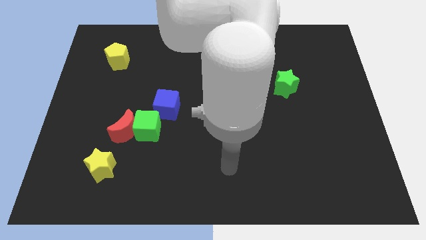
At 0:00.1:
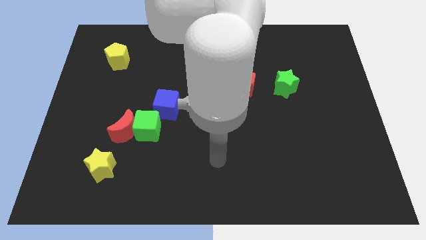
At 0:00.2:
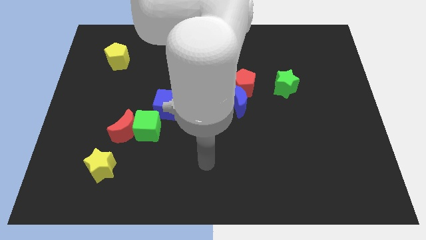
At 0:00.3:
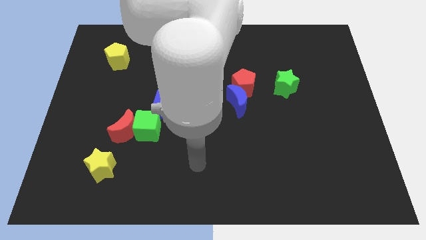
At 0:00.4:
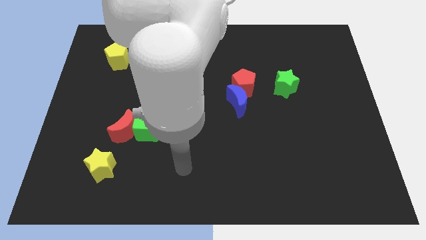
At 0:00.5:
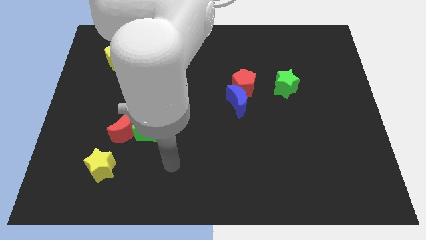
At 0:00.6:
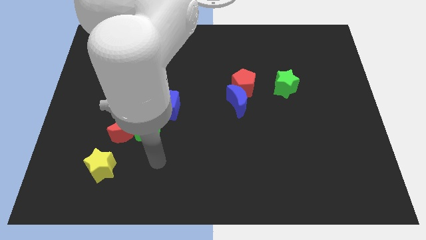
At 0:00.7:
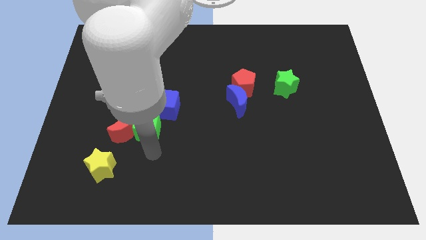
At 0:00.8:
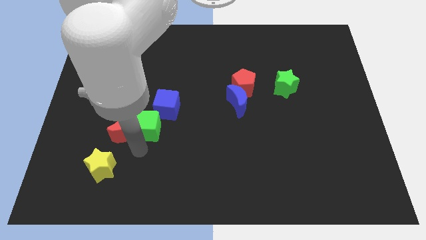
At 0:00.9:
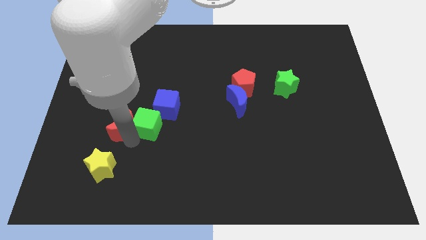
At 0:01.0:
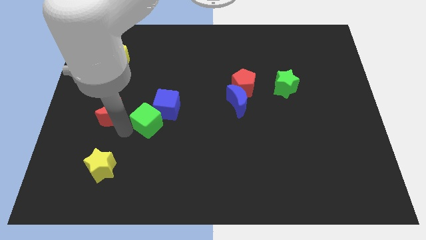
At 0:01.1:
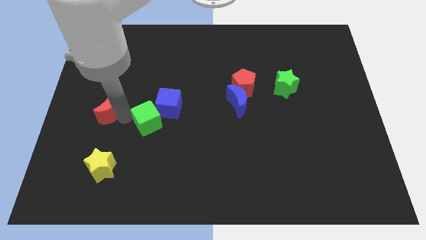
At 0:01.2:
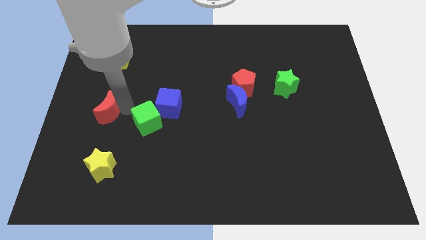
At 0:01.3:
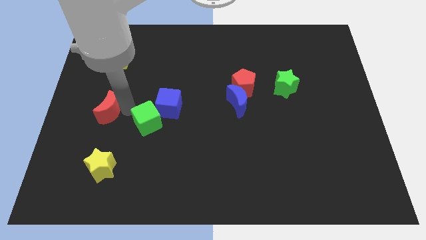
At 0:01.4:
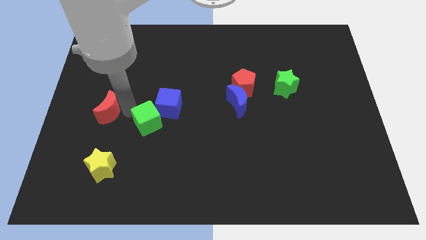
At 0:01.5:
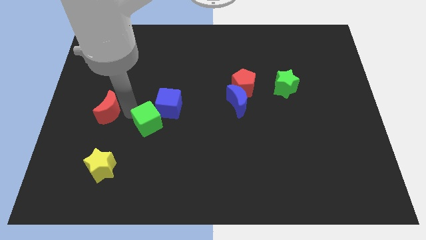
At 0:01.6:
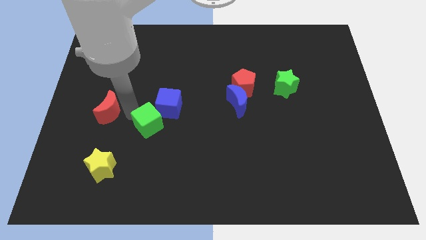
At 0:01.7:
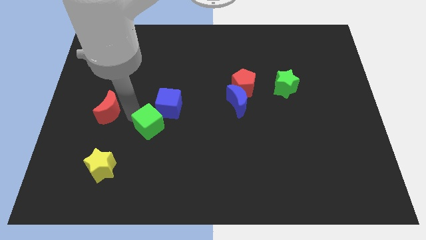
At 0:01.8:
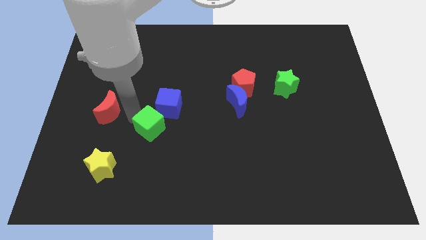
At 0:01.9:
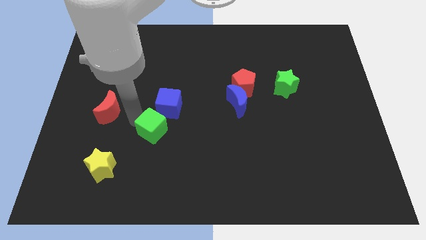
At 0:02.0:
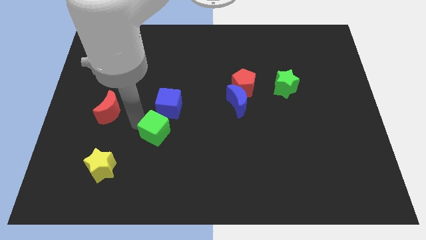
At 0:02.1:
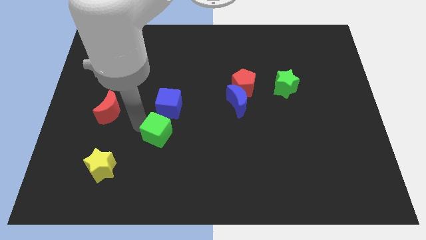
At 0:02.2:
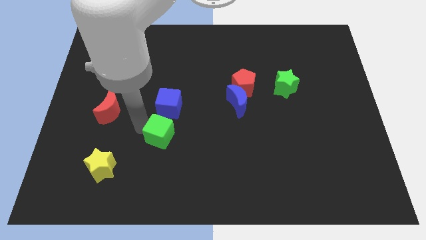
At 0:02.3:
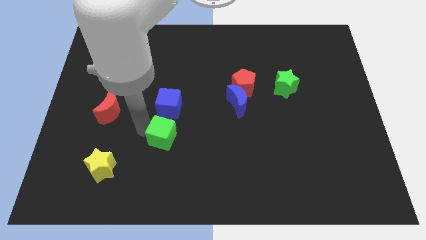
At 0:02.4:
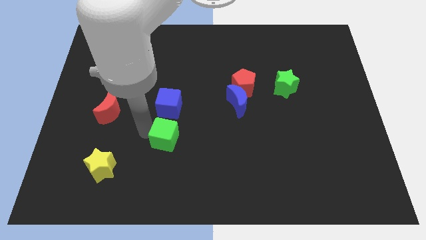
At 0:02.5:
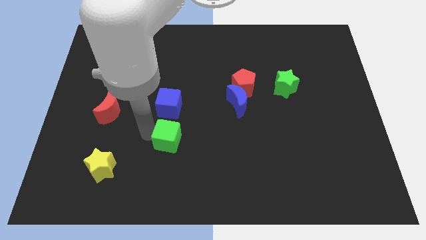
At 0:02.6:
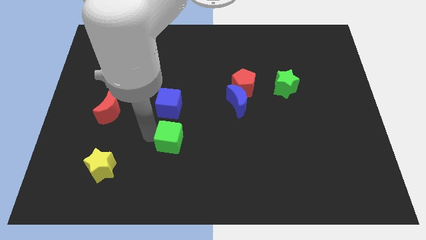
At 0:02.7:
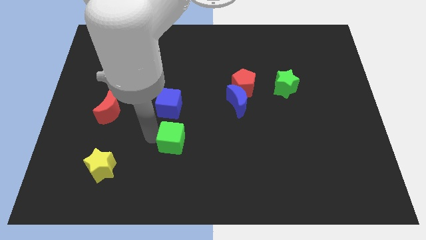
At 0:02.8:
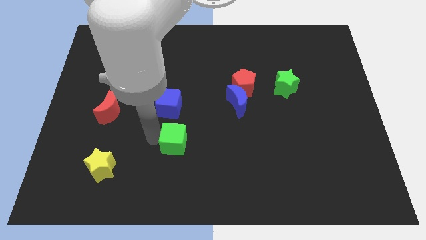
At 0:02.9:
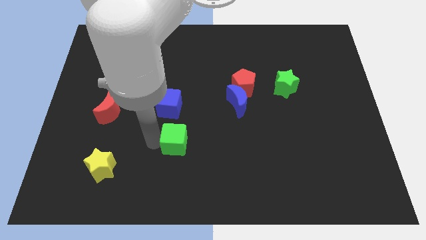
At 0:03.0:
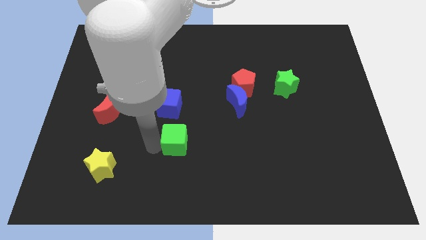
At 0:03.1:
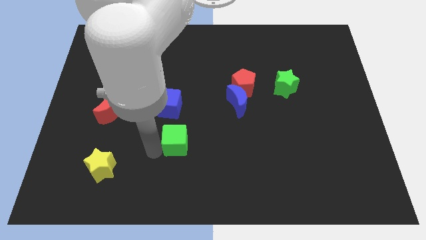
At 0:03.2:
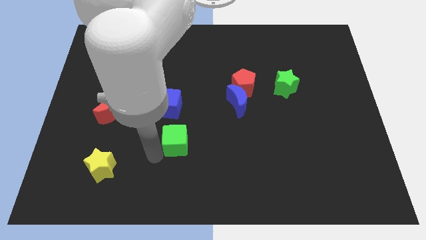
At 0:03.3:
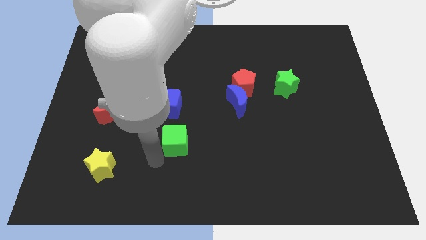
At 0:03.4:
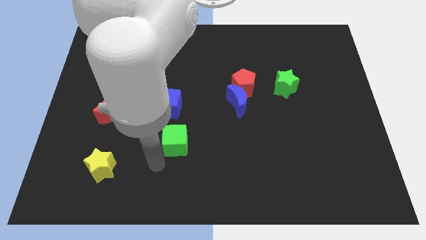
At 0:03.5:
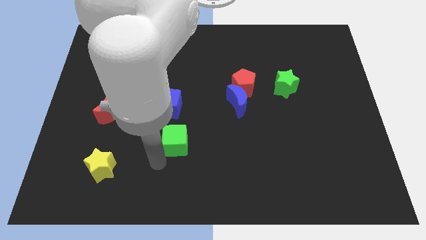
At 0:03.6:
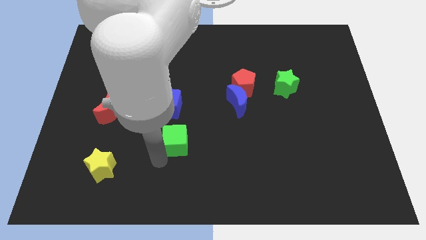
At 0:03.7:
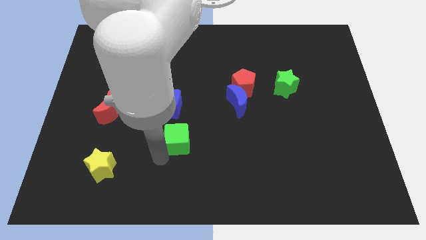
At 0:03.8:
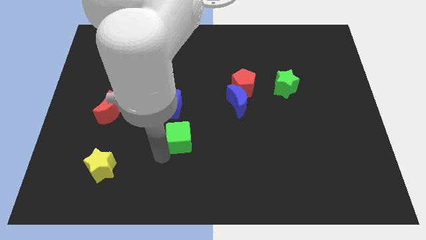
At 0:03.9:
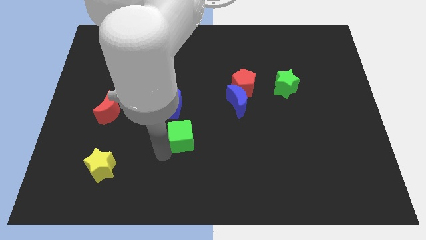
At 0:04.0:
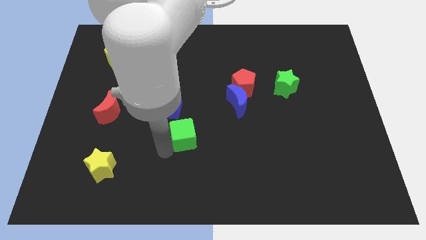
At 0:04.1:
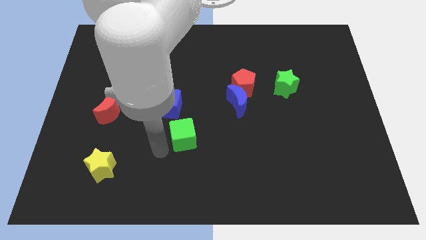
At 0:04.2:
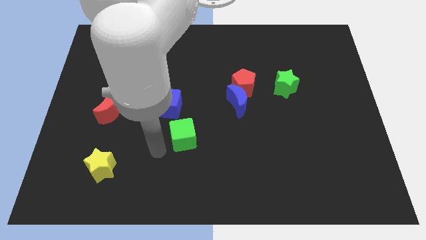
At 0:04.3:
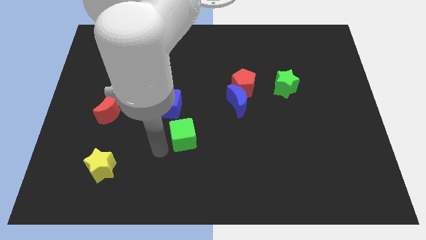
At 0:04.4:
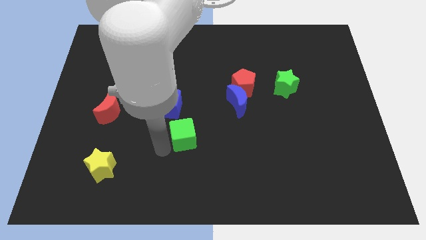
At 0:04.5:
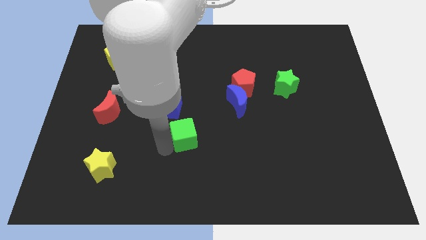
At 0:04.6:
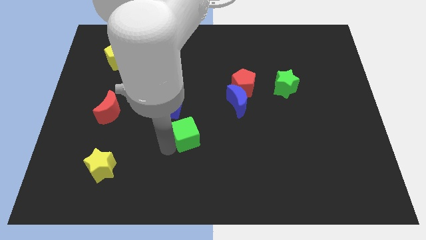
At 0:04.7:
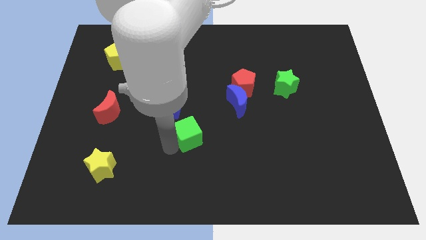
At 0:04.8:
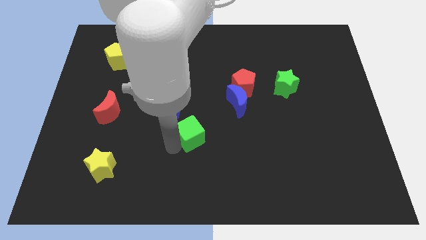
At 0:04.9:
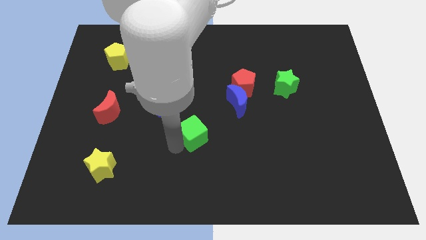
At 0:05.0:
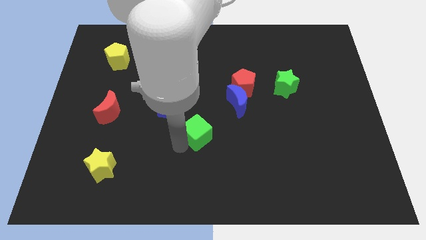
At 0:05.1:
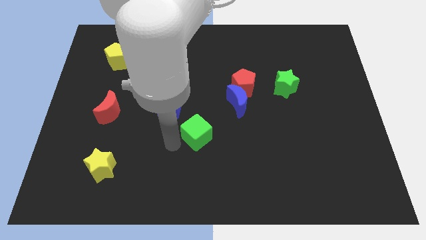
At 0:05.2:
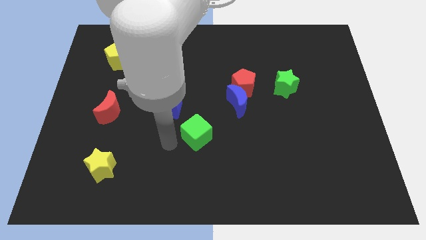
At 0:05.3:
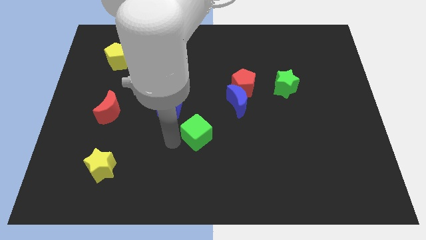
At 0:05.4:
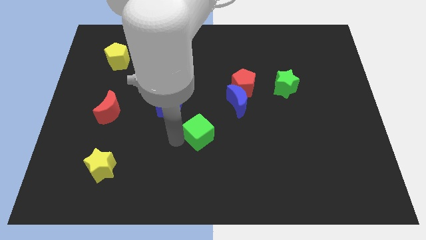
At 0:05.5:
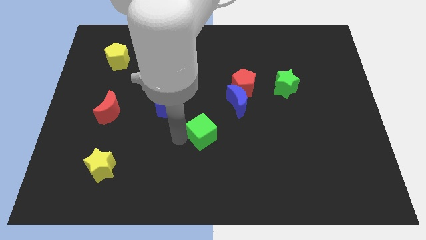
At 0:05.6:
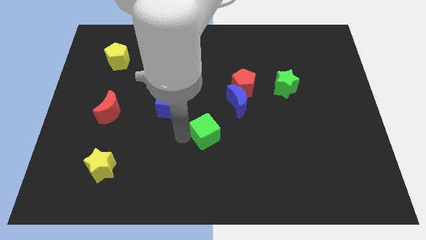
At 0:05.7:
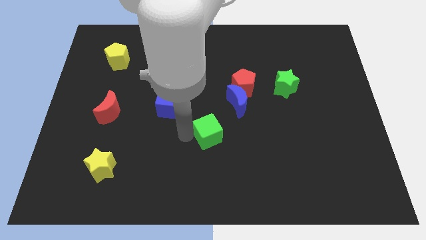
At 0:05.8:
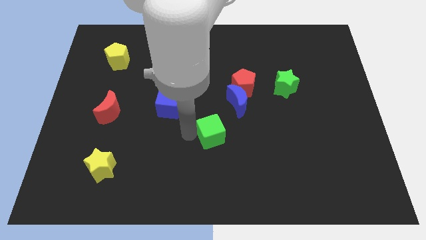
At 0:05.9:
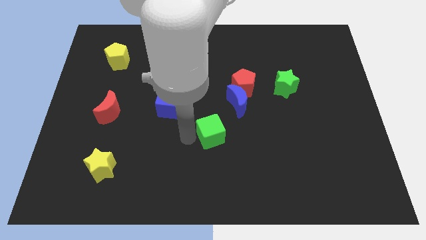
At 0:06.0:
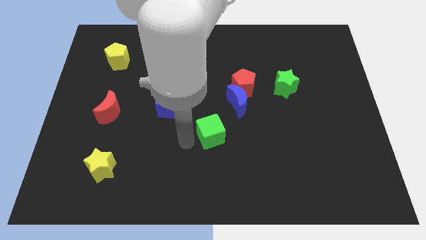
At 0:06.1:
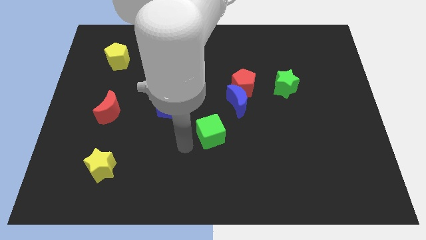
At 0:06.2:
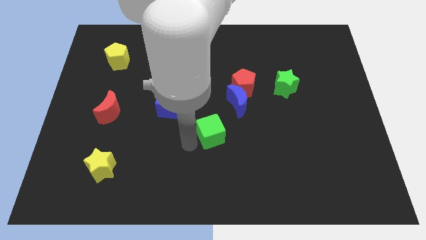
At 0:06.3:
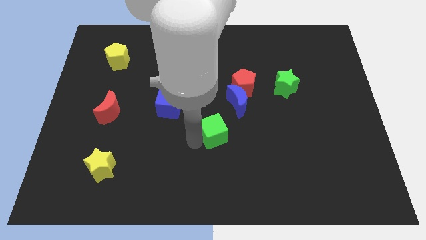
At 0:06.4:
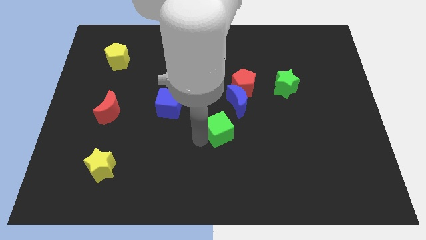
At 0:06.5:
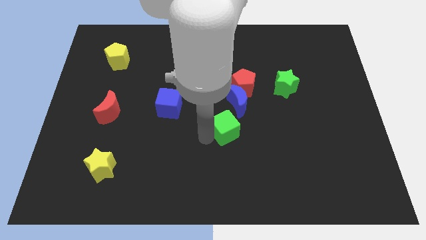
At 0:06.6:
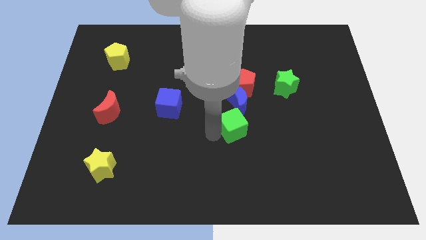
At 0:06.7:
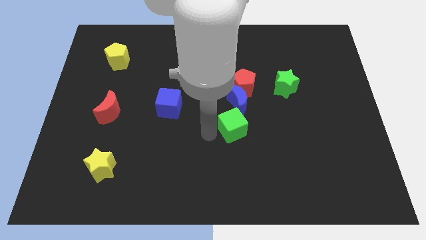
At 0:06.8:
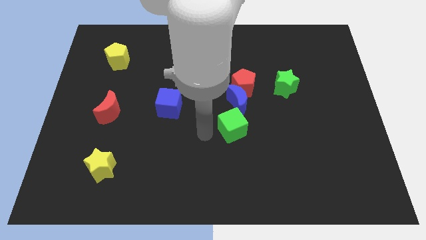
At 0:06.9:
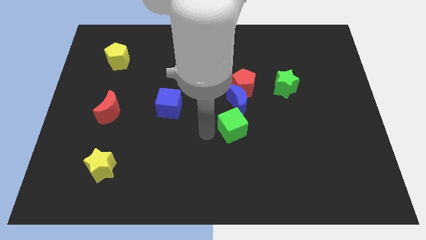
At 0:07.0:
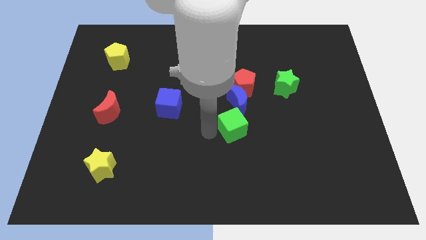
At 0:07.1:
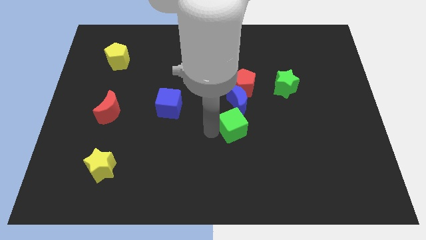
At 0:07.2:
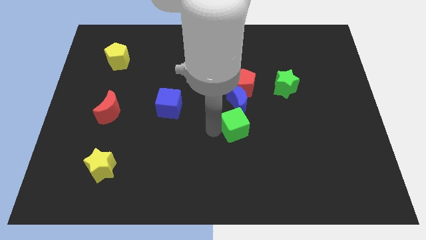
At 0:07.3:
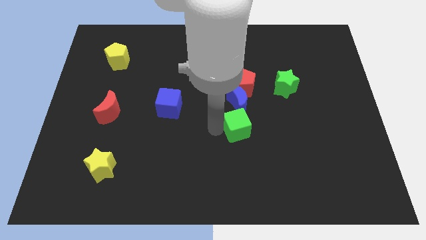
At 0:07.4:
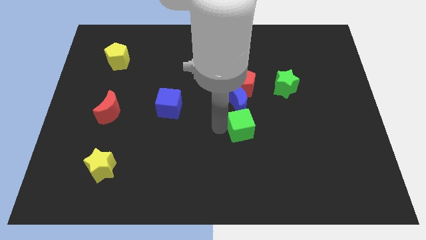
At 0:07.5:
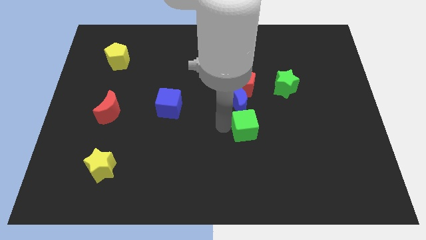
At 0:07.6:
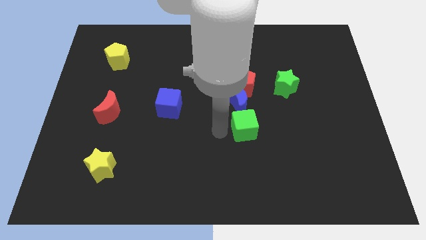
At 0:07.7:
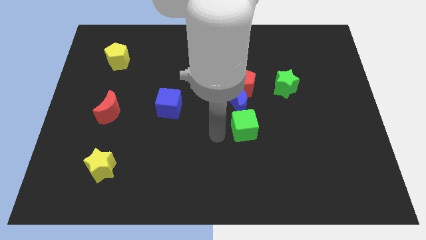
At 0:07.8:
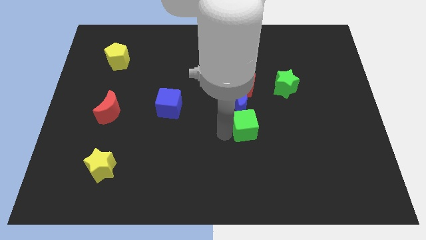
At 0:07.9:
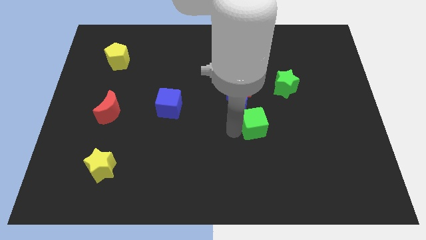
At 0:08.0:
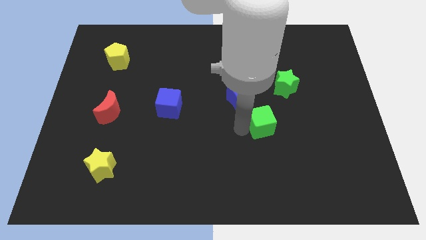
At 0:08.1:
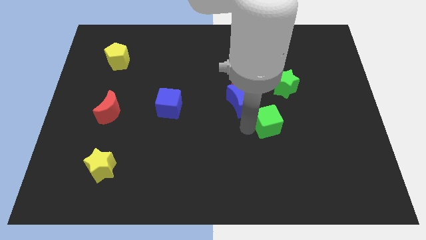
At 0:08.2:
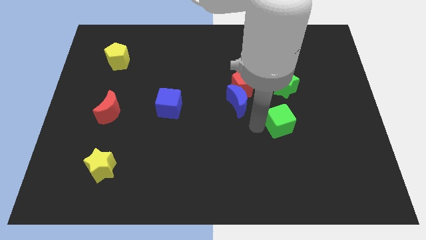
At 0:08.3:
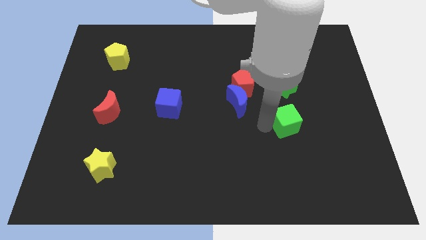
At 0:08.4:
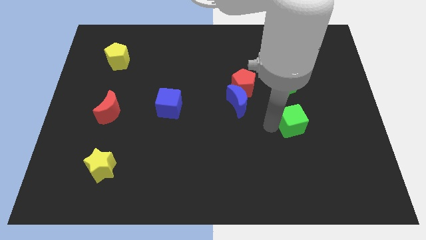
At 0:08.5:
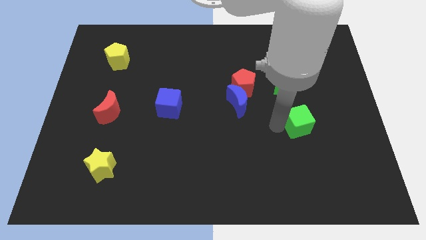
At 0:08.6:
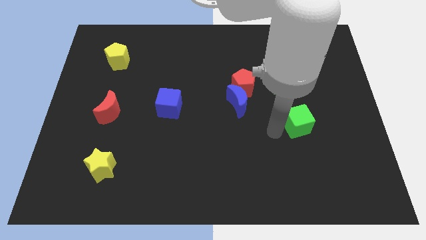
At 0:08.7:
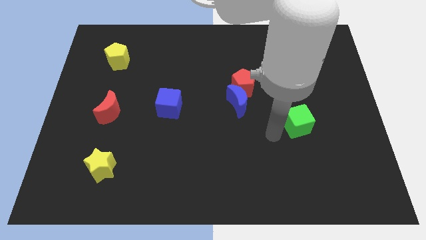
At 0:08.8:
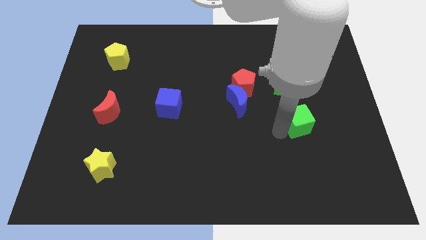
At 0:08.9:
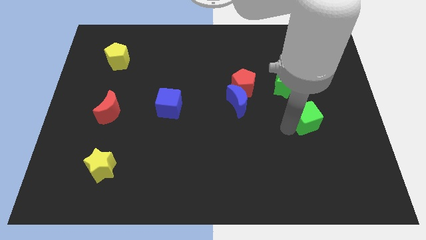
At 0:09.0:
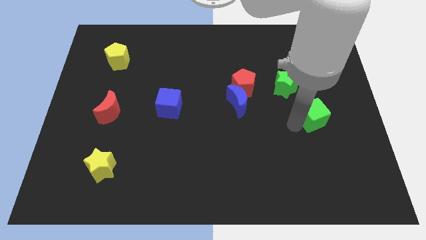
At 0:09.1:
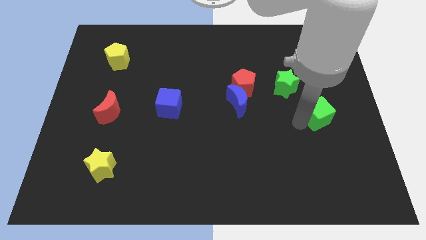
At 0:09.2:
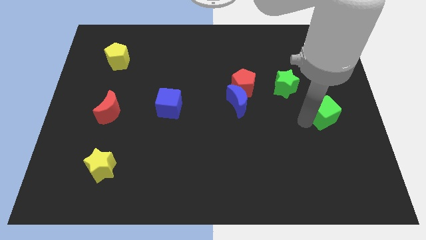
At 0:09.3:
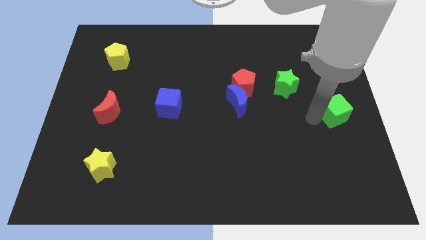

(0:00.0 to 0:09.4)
slide the green cube to the center right
